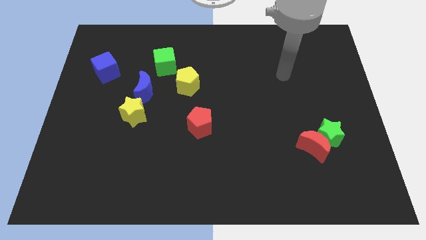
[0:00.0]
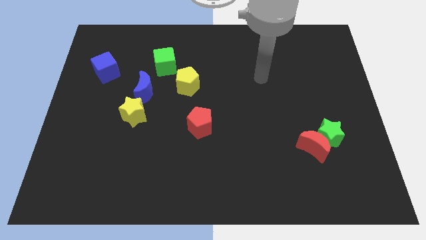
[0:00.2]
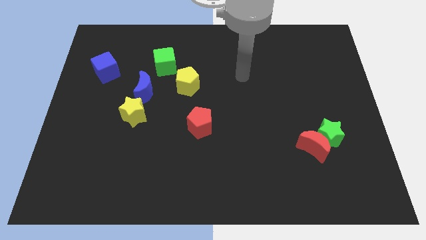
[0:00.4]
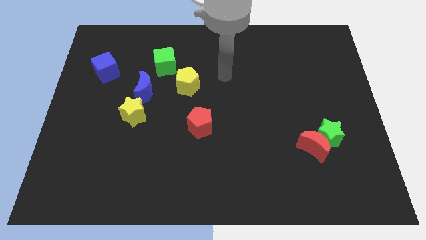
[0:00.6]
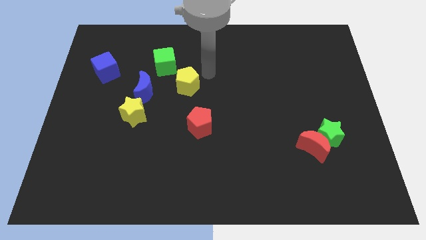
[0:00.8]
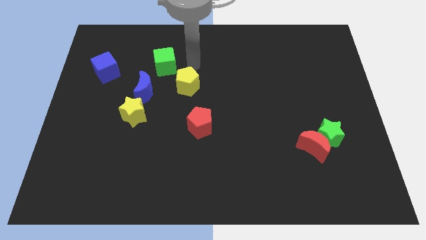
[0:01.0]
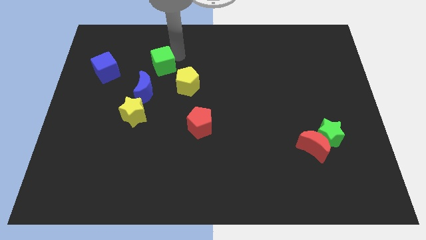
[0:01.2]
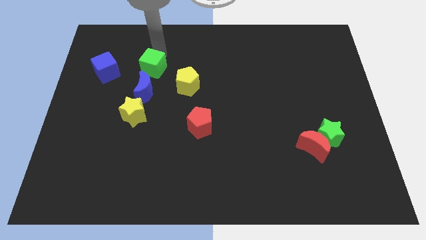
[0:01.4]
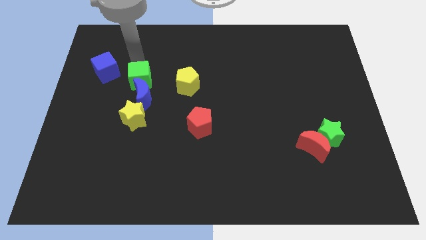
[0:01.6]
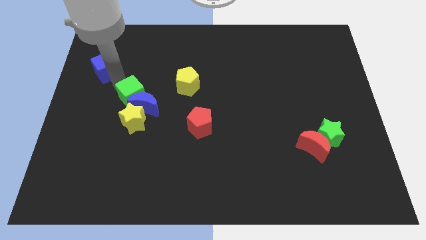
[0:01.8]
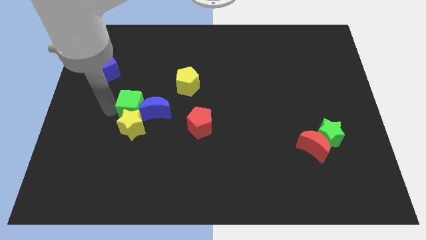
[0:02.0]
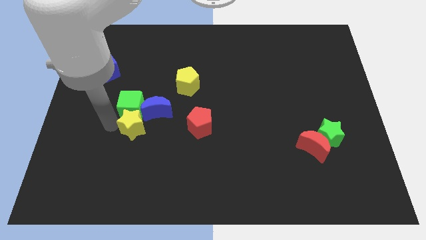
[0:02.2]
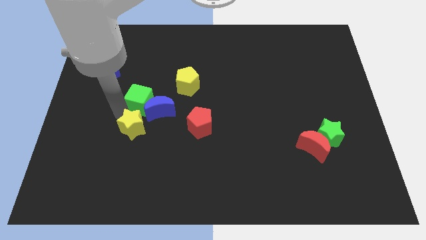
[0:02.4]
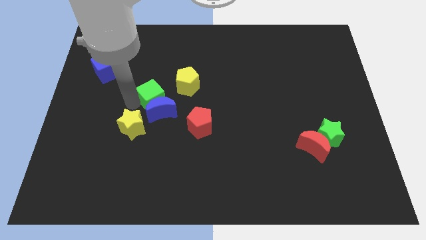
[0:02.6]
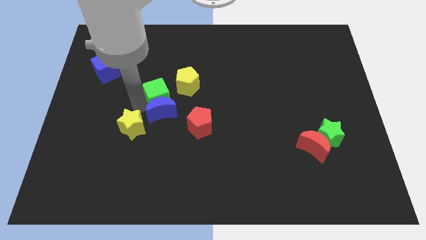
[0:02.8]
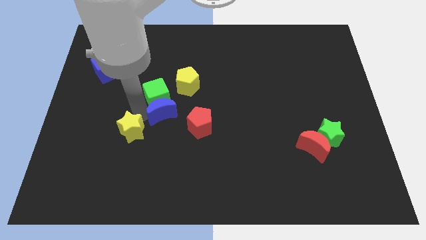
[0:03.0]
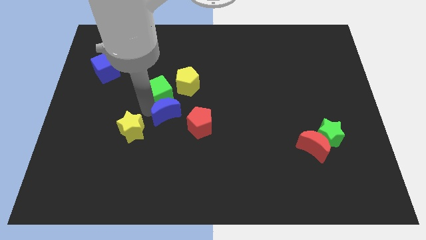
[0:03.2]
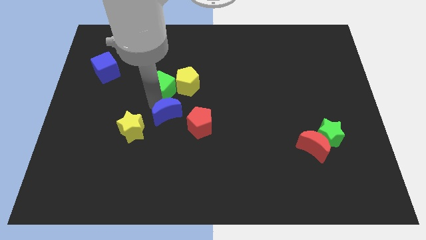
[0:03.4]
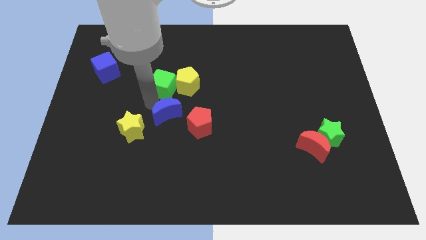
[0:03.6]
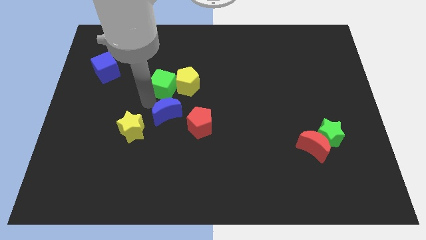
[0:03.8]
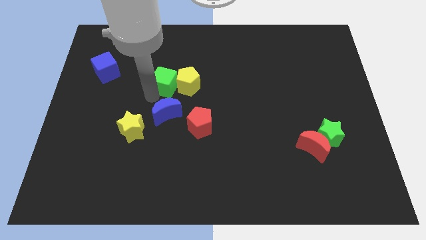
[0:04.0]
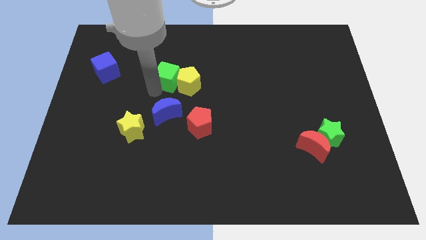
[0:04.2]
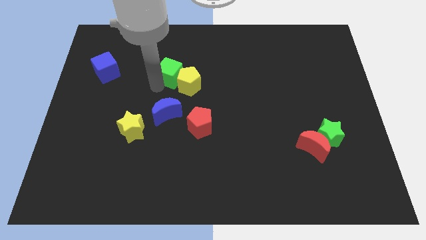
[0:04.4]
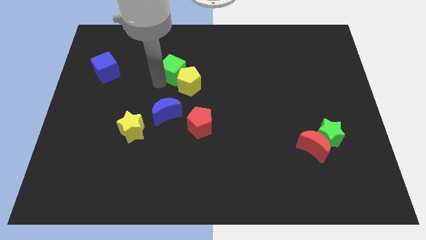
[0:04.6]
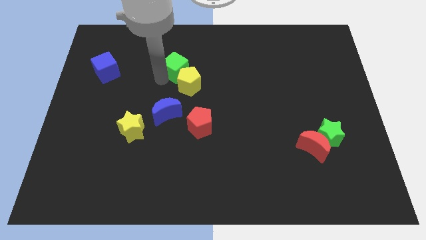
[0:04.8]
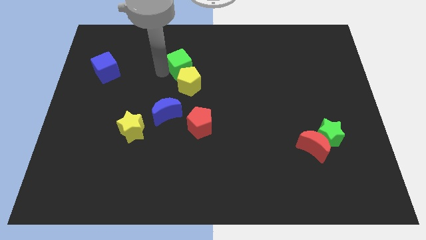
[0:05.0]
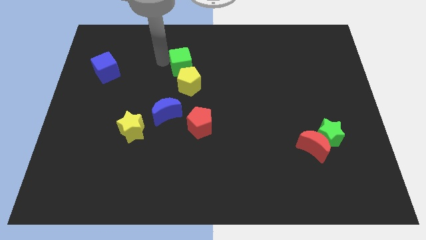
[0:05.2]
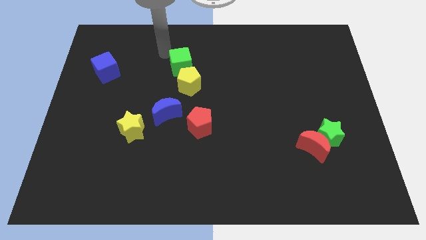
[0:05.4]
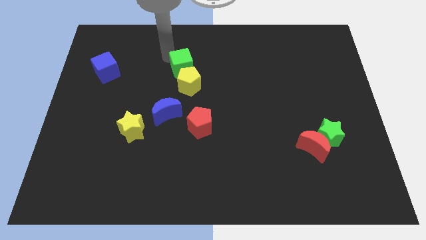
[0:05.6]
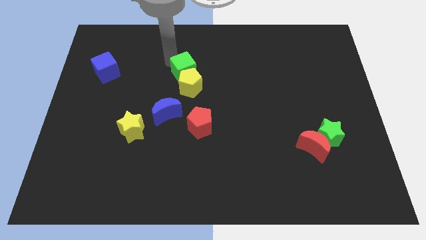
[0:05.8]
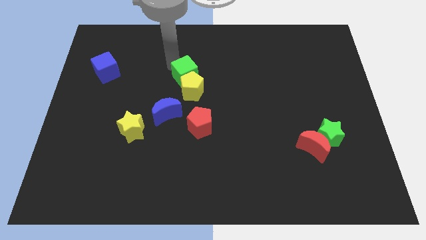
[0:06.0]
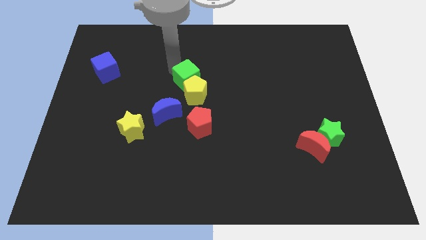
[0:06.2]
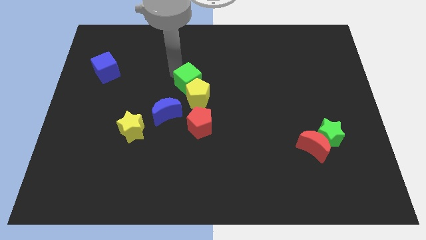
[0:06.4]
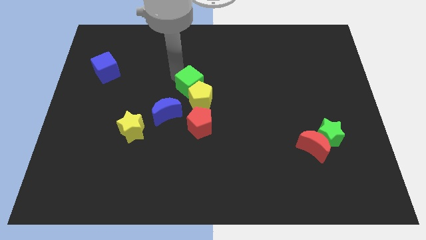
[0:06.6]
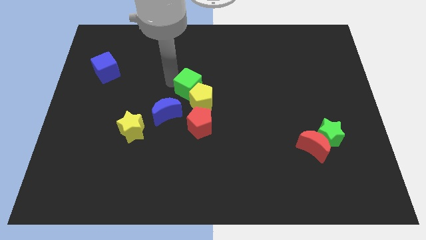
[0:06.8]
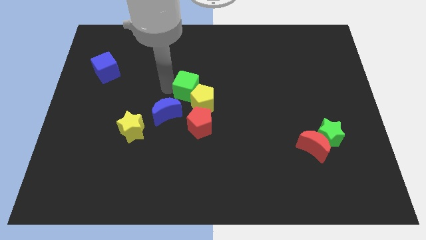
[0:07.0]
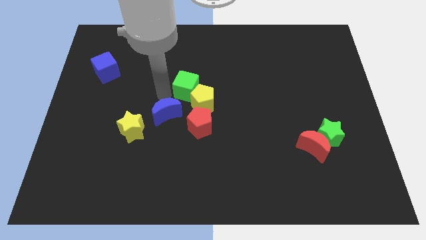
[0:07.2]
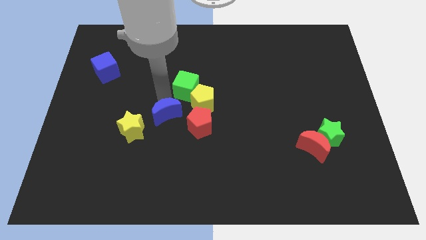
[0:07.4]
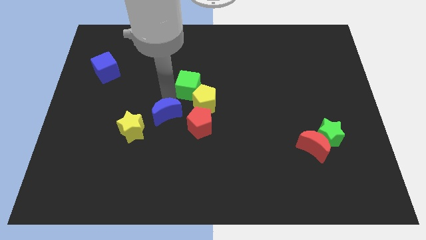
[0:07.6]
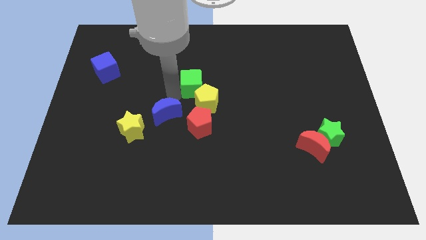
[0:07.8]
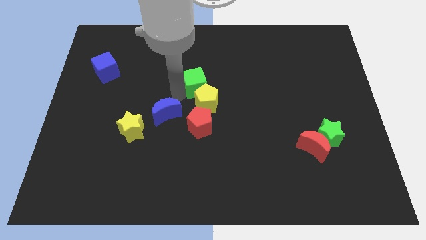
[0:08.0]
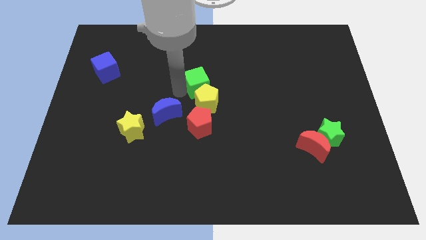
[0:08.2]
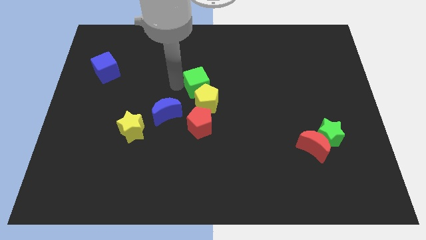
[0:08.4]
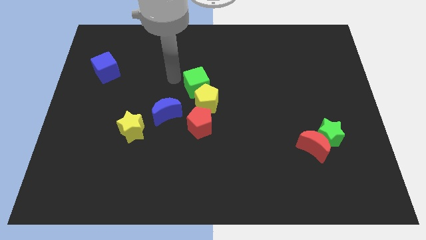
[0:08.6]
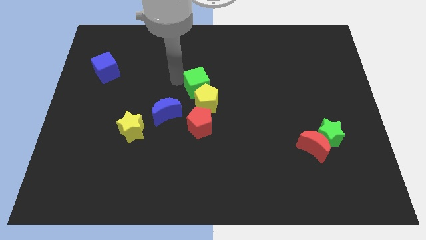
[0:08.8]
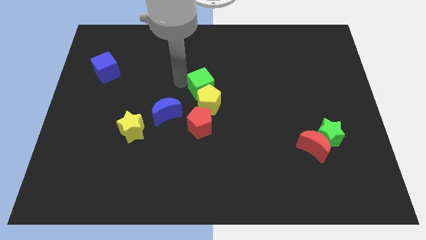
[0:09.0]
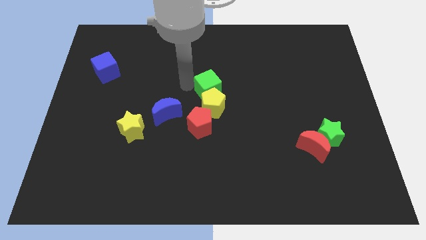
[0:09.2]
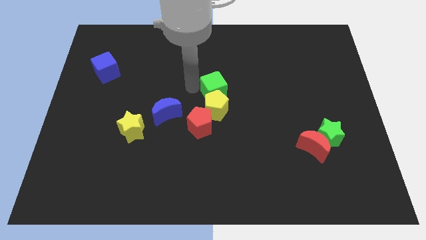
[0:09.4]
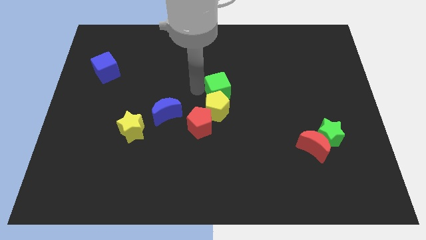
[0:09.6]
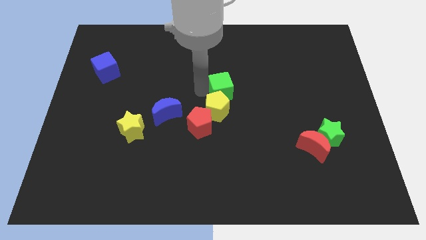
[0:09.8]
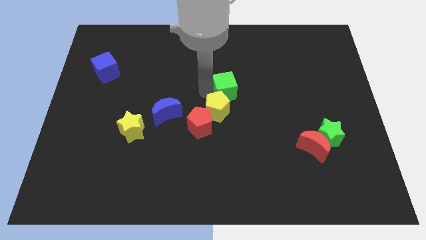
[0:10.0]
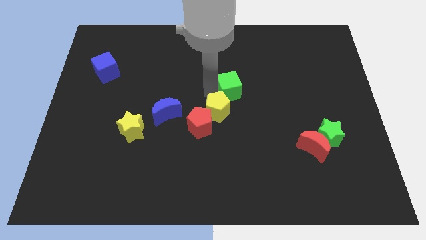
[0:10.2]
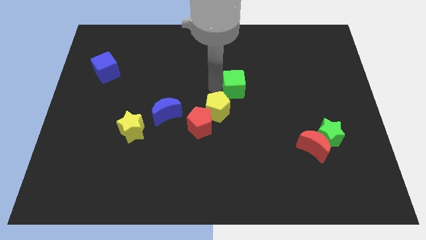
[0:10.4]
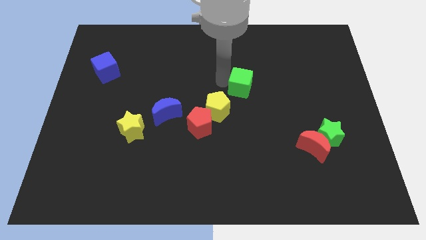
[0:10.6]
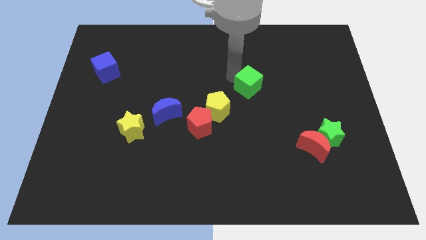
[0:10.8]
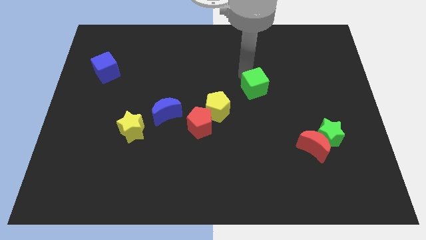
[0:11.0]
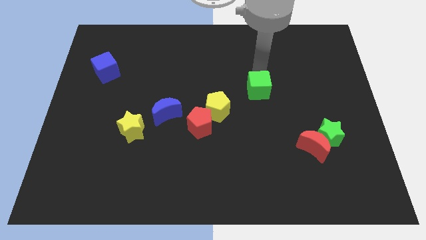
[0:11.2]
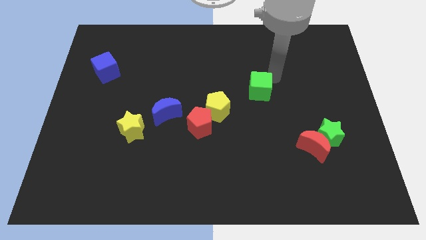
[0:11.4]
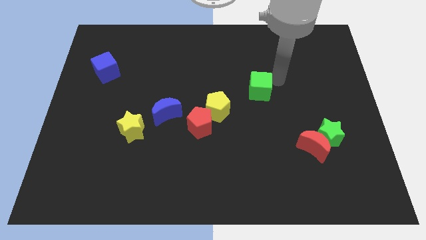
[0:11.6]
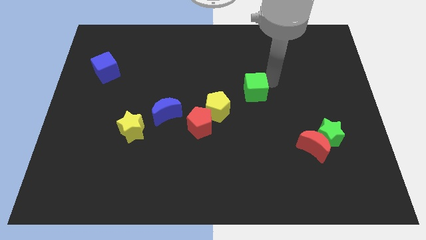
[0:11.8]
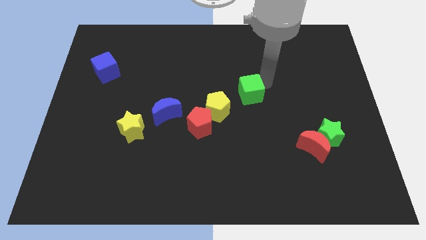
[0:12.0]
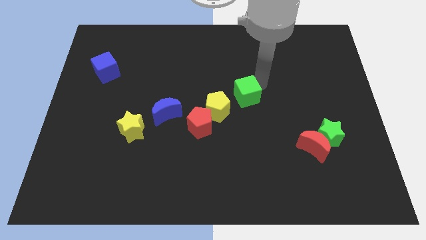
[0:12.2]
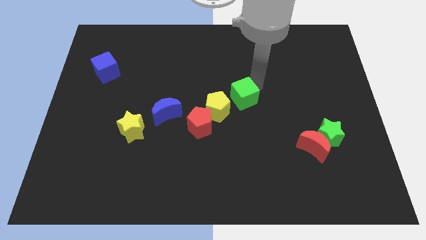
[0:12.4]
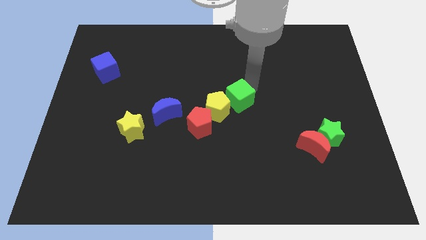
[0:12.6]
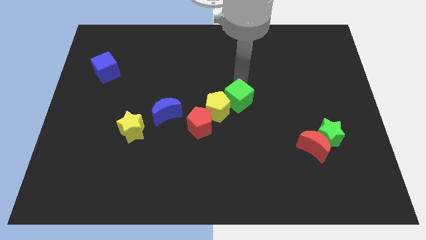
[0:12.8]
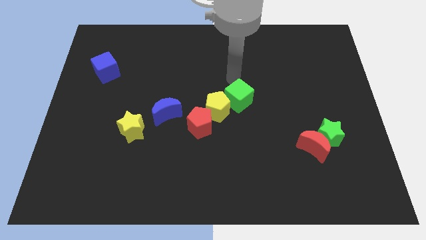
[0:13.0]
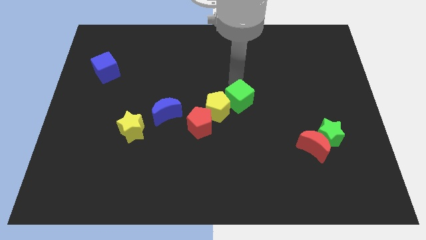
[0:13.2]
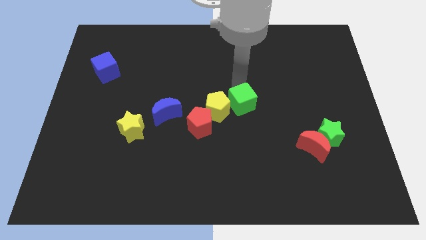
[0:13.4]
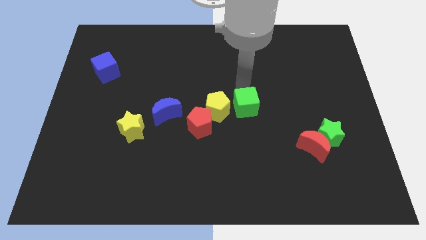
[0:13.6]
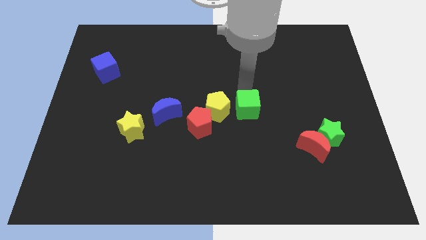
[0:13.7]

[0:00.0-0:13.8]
push the green cube to the right side of the red pentagon
